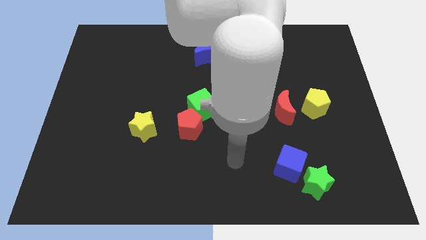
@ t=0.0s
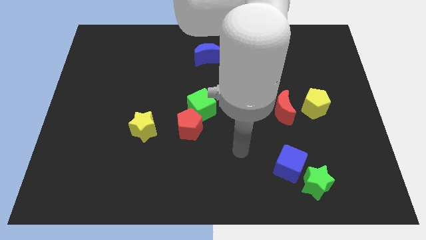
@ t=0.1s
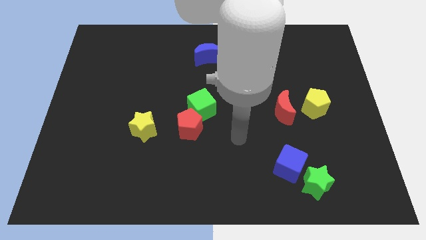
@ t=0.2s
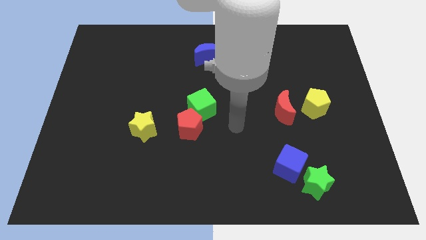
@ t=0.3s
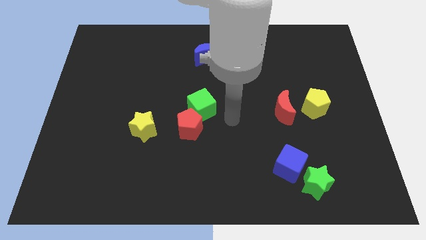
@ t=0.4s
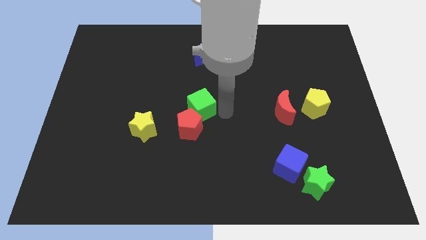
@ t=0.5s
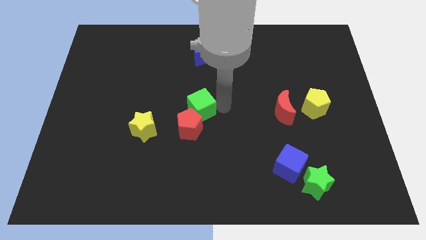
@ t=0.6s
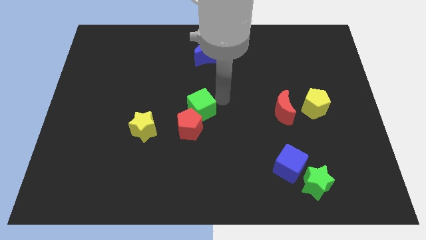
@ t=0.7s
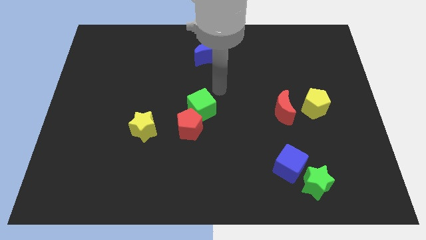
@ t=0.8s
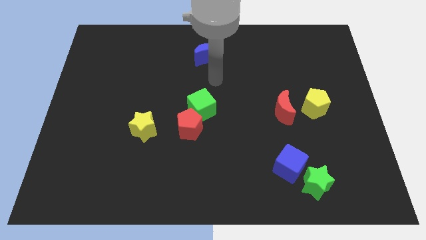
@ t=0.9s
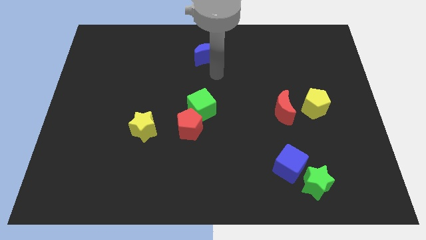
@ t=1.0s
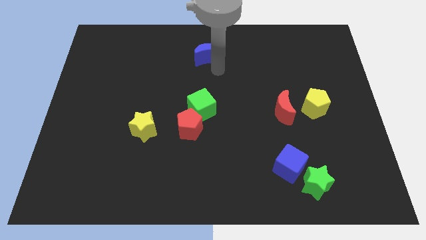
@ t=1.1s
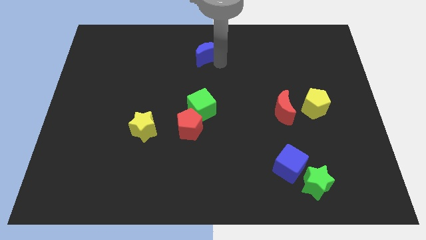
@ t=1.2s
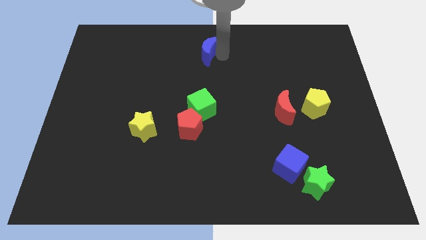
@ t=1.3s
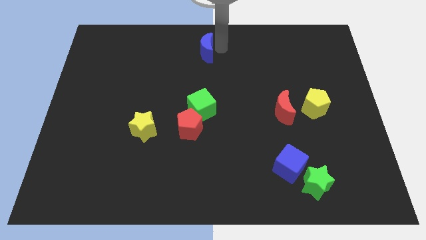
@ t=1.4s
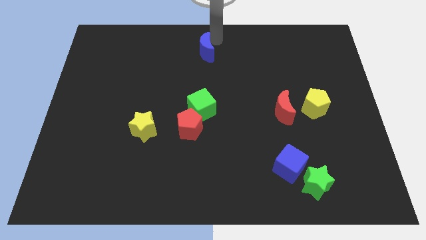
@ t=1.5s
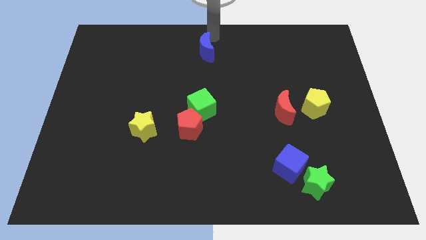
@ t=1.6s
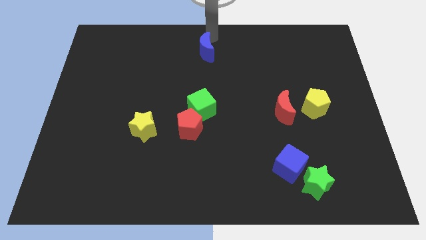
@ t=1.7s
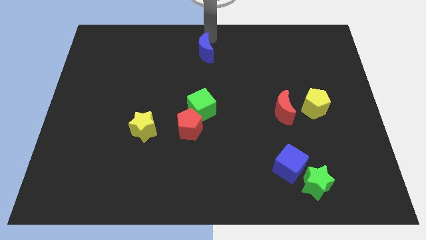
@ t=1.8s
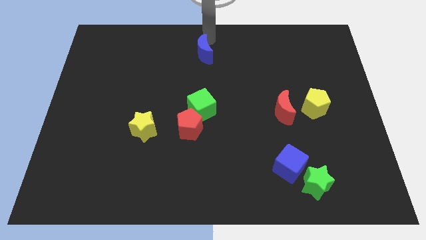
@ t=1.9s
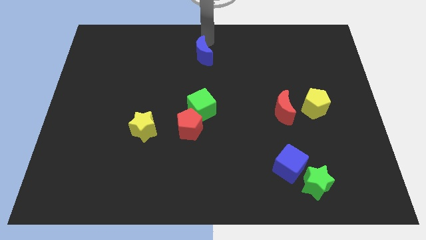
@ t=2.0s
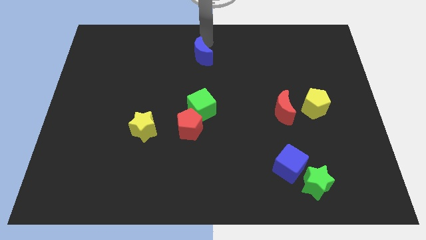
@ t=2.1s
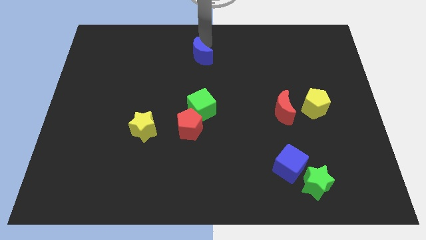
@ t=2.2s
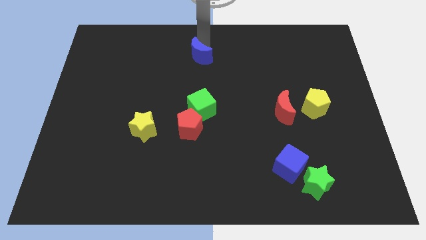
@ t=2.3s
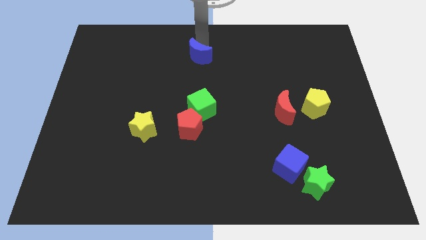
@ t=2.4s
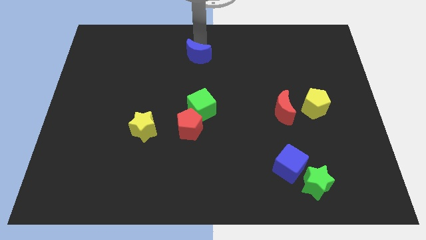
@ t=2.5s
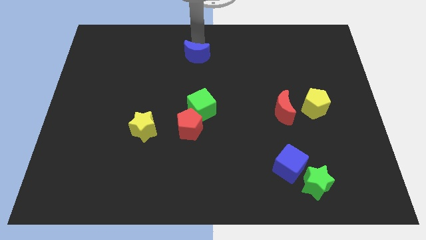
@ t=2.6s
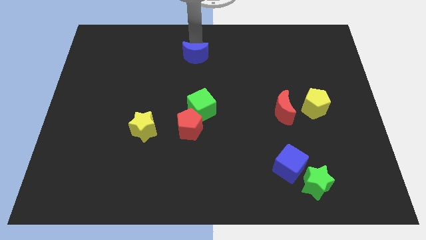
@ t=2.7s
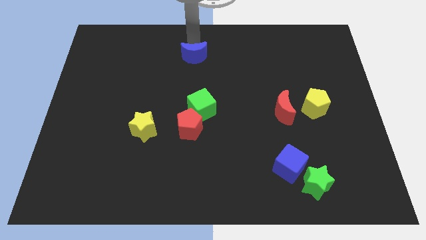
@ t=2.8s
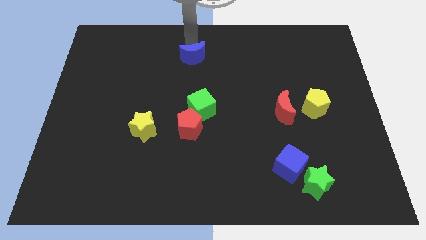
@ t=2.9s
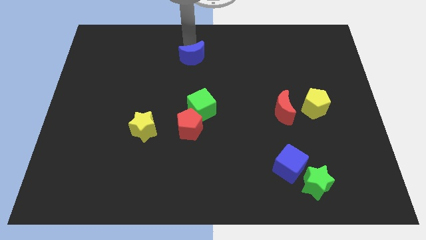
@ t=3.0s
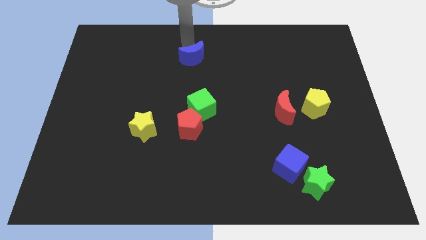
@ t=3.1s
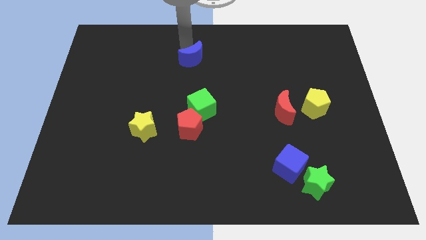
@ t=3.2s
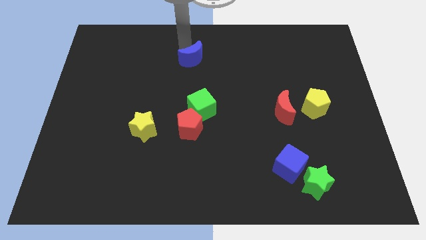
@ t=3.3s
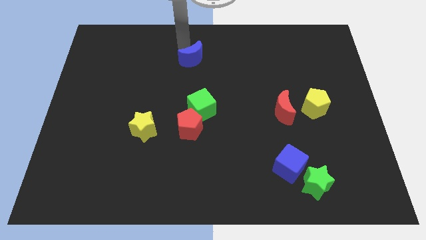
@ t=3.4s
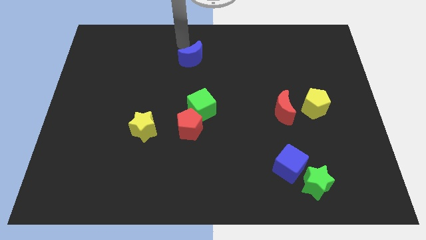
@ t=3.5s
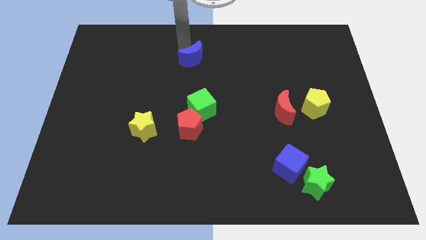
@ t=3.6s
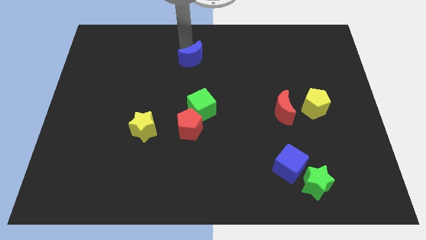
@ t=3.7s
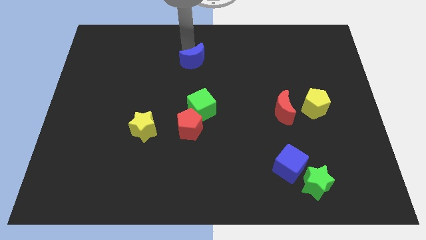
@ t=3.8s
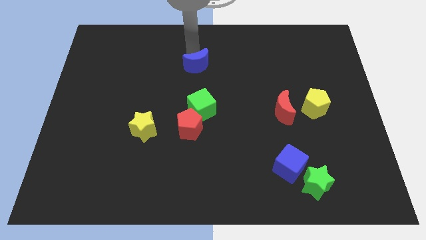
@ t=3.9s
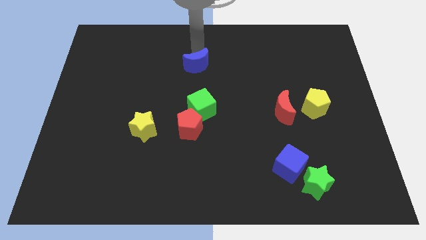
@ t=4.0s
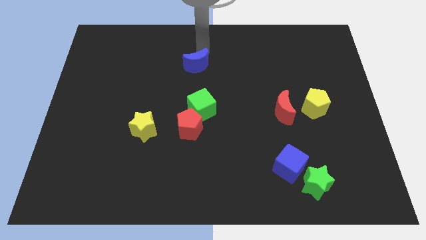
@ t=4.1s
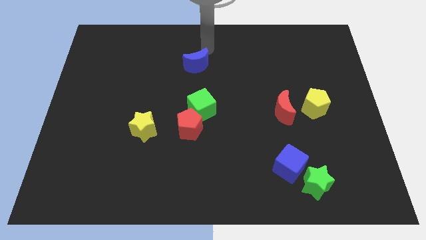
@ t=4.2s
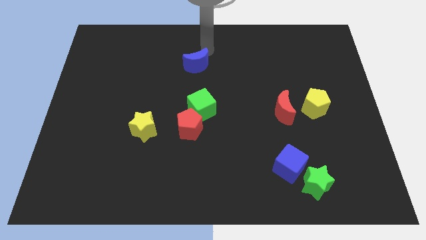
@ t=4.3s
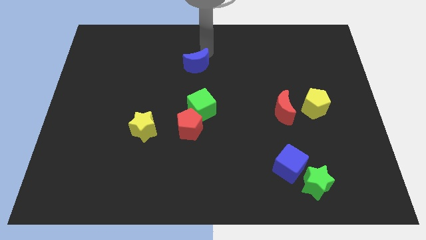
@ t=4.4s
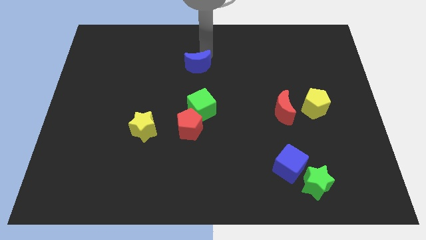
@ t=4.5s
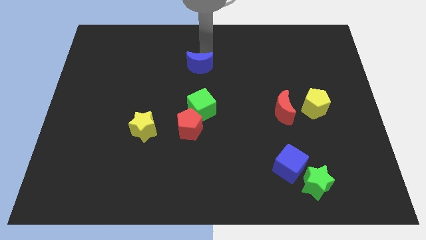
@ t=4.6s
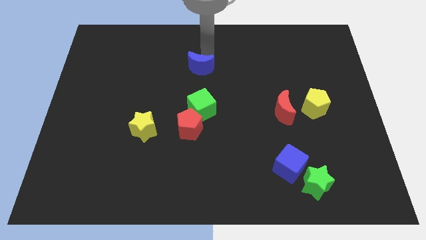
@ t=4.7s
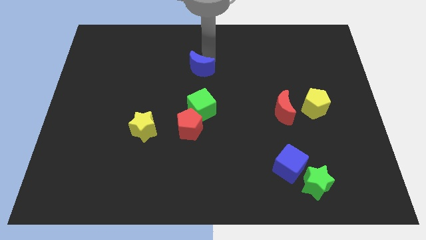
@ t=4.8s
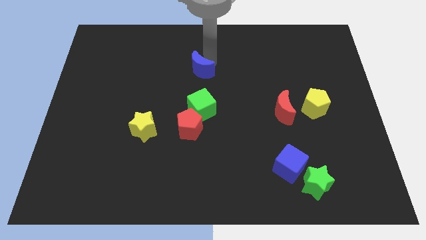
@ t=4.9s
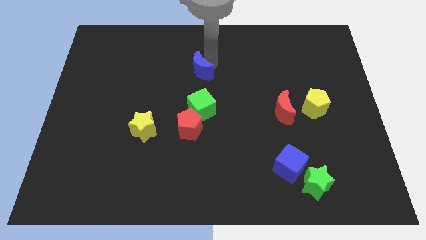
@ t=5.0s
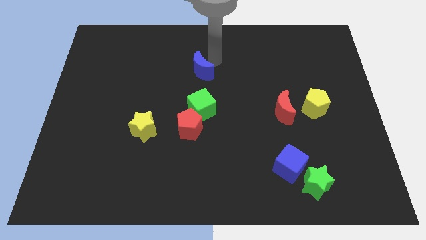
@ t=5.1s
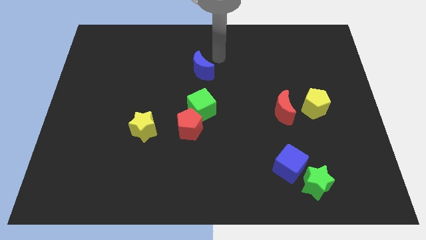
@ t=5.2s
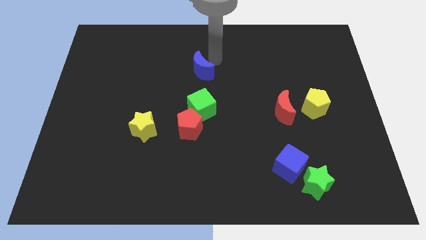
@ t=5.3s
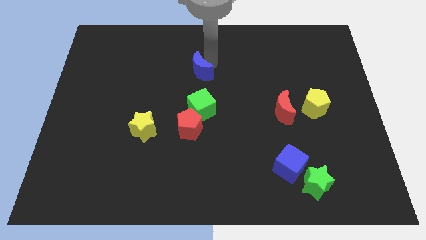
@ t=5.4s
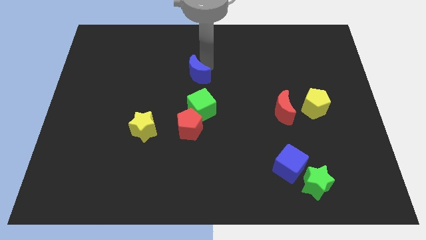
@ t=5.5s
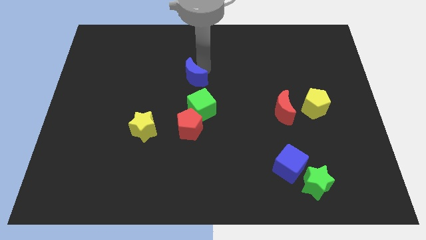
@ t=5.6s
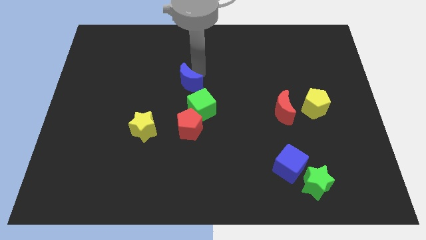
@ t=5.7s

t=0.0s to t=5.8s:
push the blue moon diagonally up and to the left of the green cube

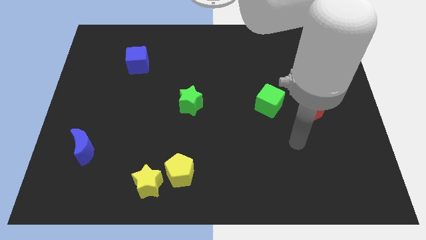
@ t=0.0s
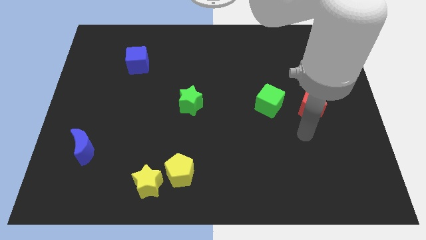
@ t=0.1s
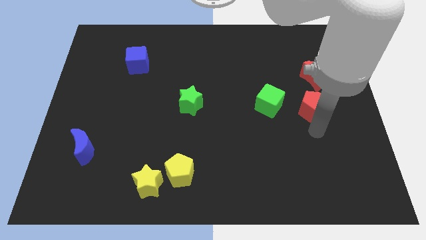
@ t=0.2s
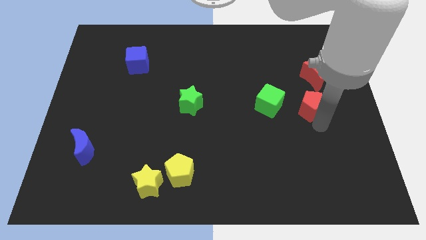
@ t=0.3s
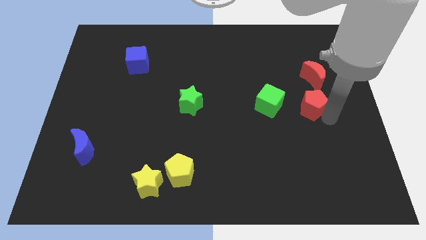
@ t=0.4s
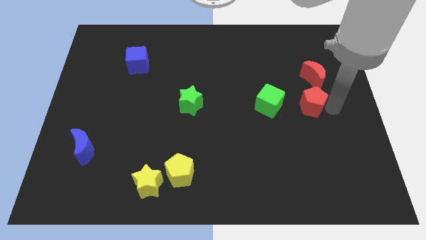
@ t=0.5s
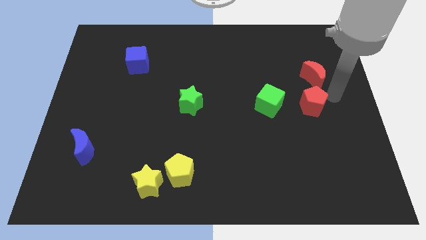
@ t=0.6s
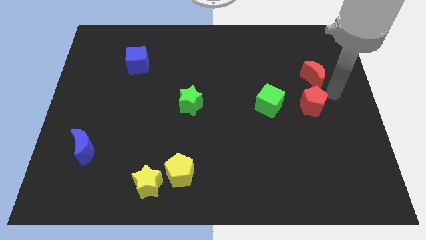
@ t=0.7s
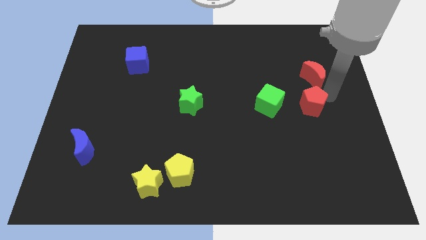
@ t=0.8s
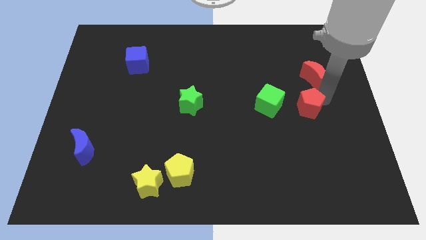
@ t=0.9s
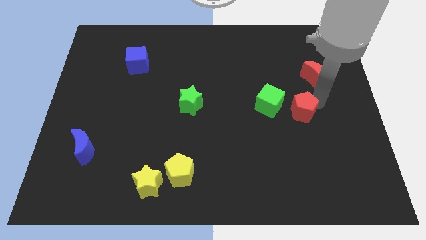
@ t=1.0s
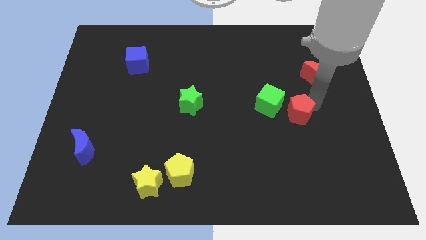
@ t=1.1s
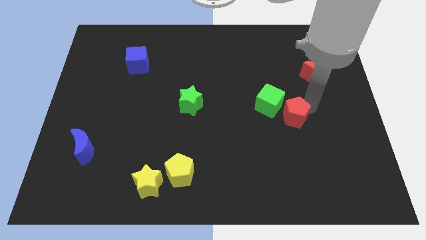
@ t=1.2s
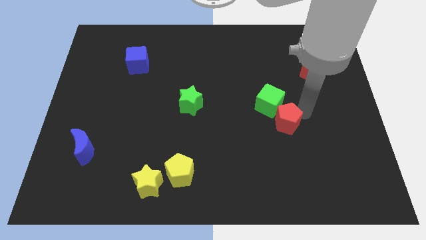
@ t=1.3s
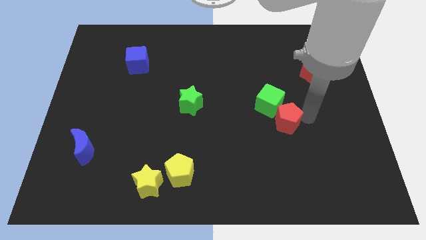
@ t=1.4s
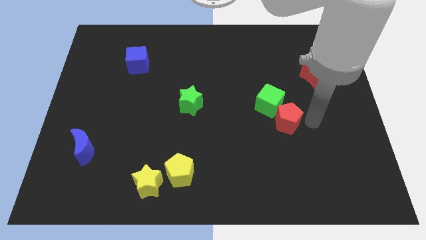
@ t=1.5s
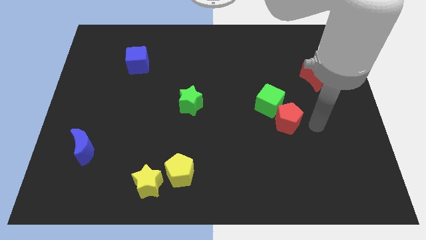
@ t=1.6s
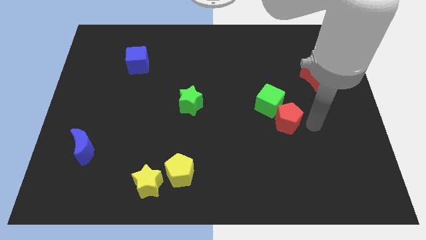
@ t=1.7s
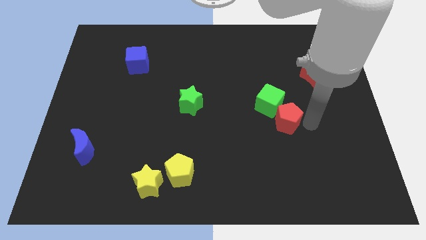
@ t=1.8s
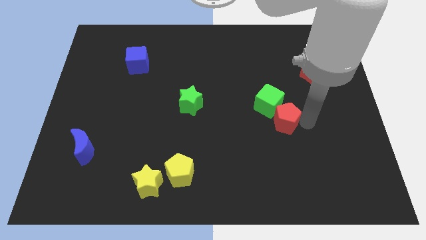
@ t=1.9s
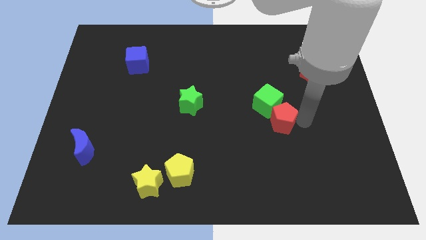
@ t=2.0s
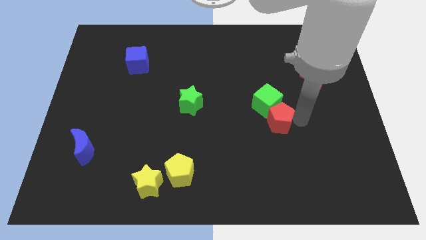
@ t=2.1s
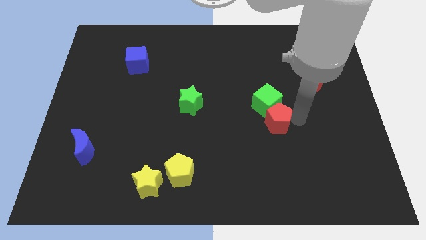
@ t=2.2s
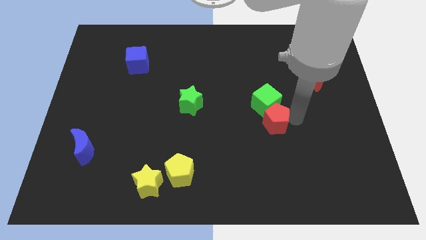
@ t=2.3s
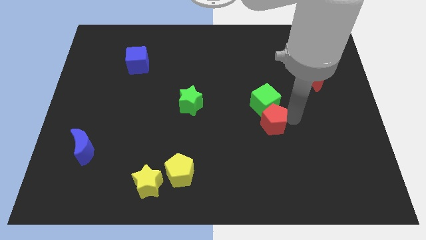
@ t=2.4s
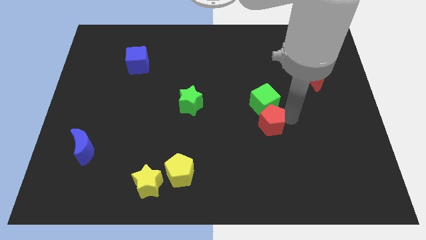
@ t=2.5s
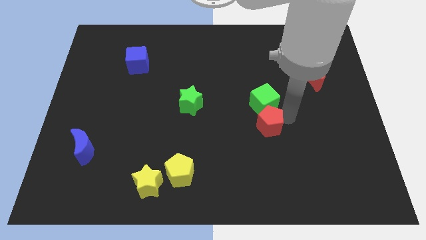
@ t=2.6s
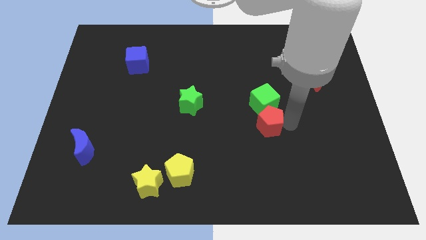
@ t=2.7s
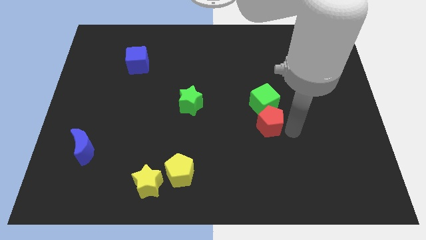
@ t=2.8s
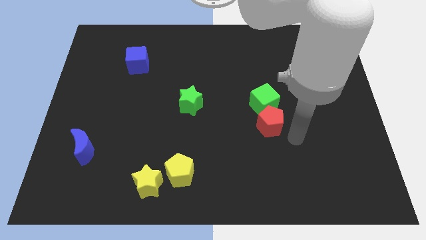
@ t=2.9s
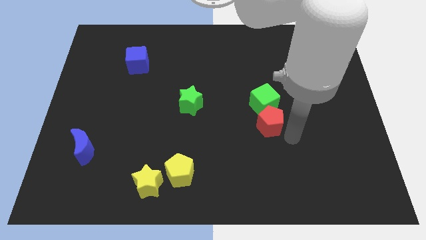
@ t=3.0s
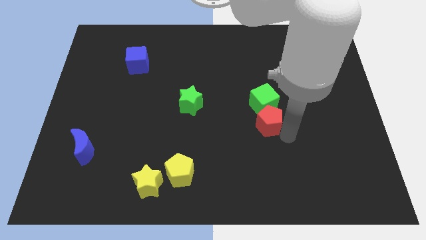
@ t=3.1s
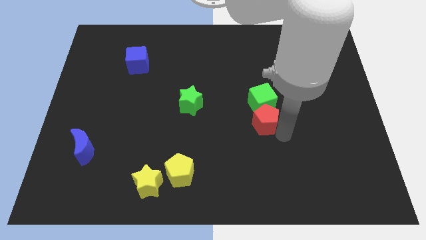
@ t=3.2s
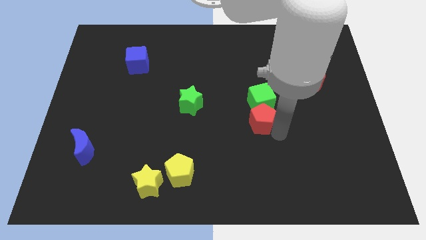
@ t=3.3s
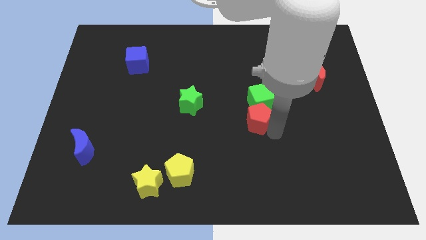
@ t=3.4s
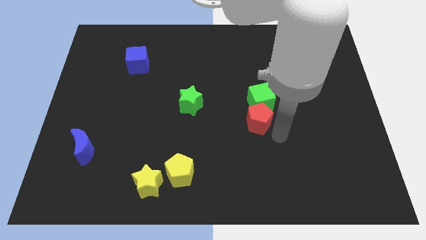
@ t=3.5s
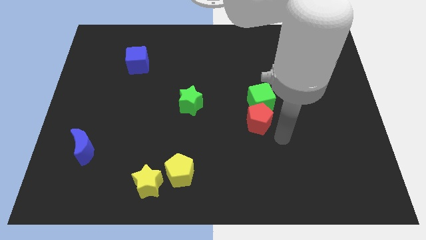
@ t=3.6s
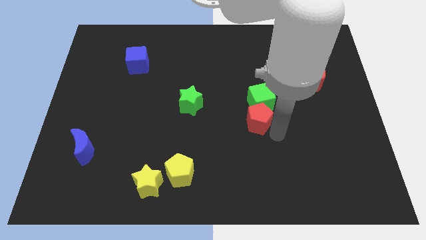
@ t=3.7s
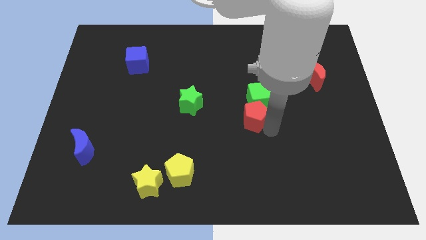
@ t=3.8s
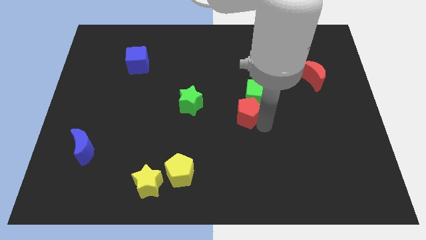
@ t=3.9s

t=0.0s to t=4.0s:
move the red pentagon right of the green star
